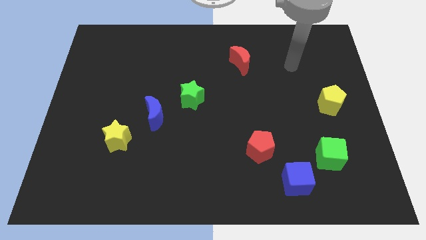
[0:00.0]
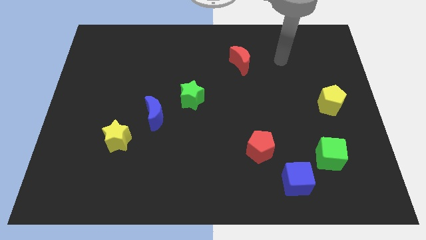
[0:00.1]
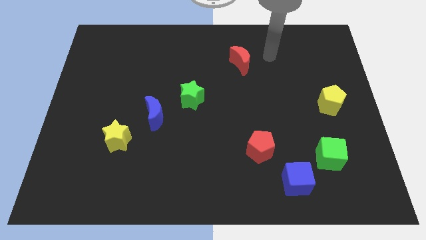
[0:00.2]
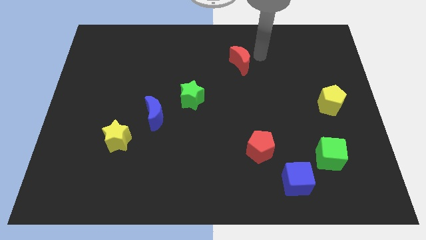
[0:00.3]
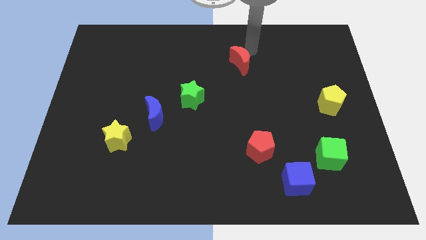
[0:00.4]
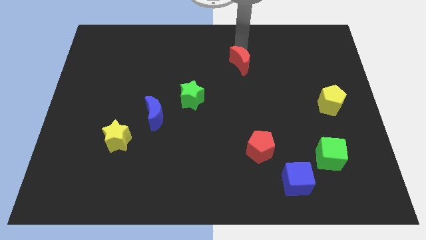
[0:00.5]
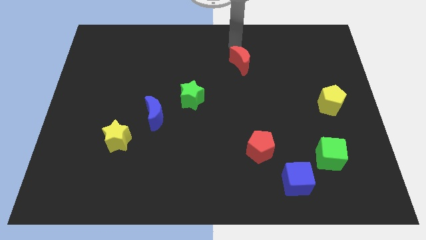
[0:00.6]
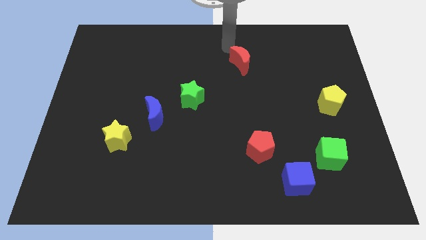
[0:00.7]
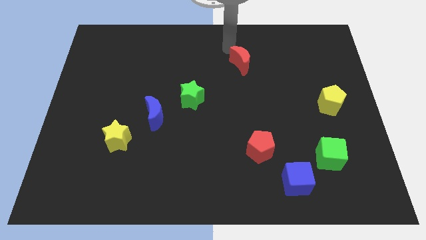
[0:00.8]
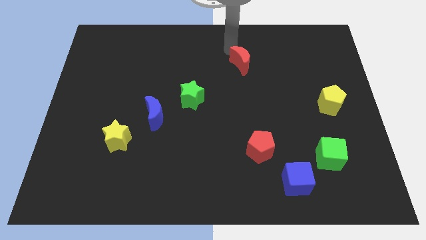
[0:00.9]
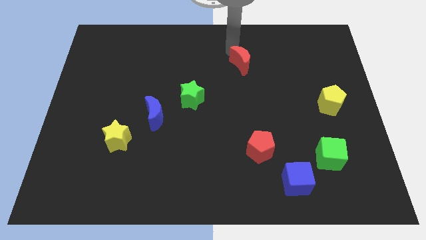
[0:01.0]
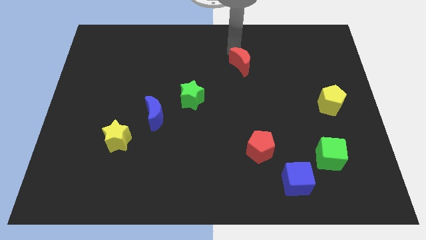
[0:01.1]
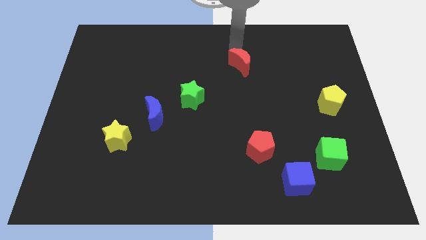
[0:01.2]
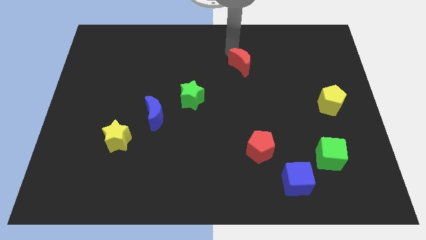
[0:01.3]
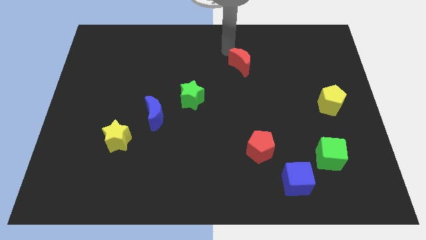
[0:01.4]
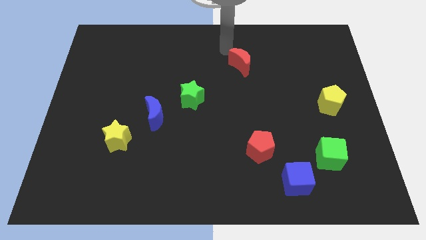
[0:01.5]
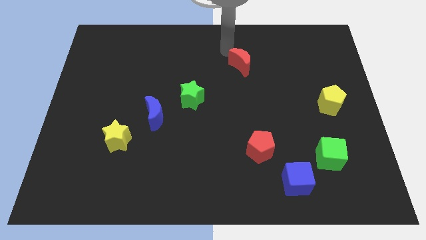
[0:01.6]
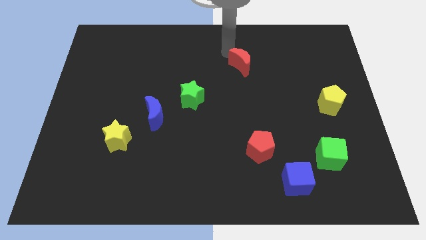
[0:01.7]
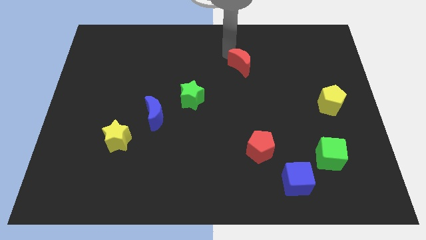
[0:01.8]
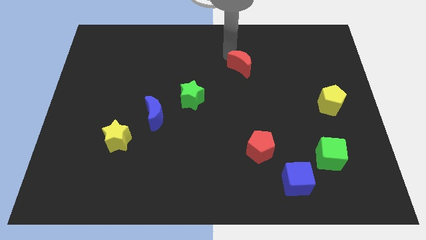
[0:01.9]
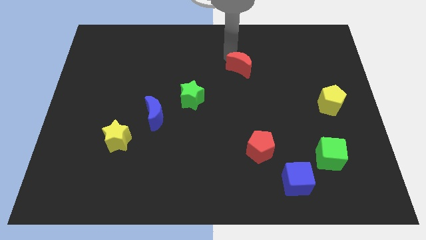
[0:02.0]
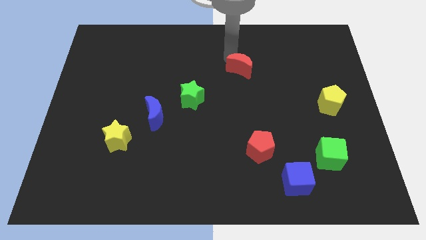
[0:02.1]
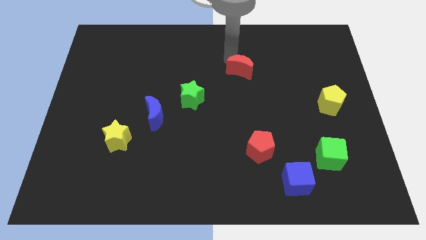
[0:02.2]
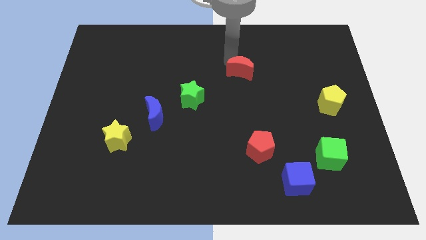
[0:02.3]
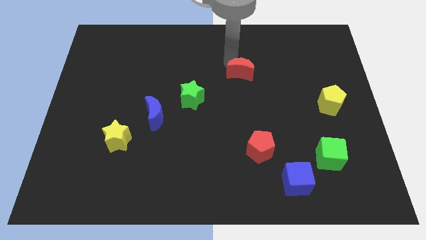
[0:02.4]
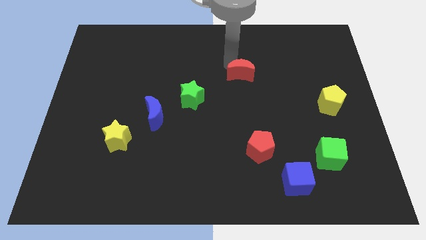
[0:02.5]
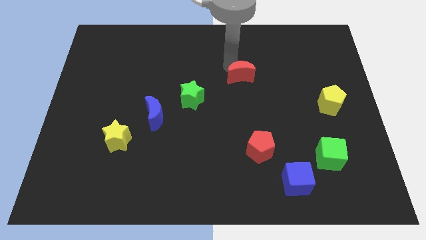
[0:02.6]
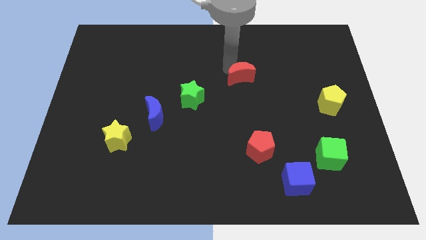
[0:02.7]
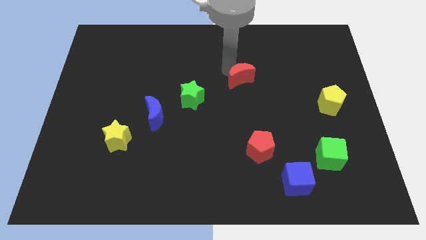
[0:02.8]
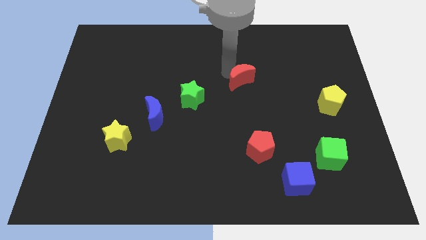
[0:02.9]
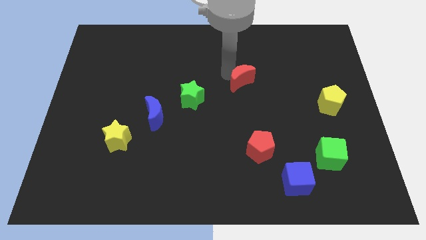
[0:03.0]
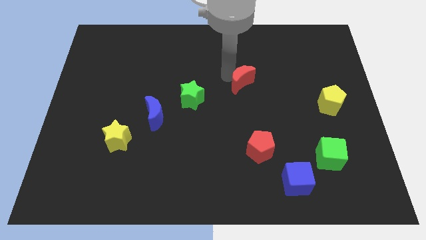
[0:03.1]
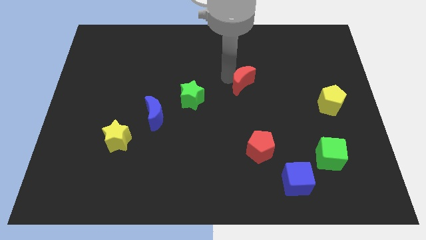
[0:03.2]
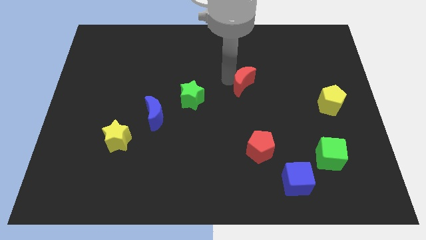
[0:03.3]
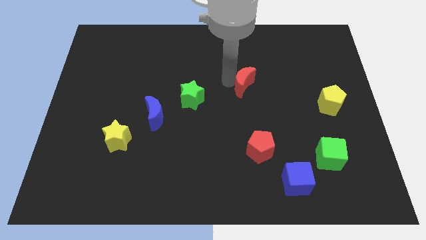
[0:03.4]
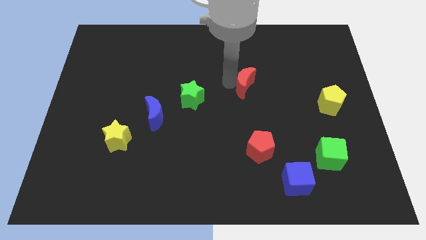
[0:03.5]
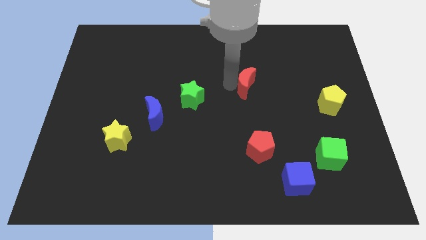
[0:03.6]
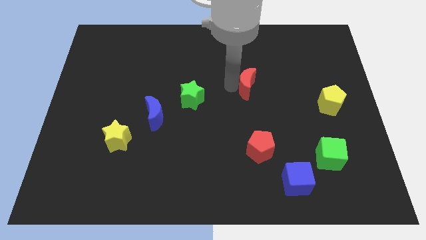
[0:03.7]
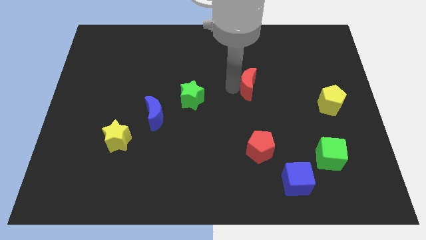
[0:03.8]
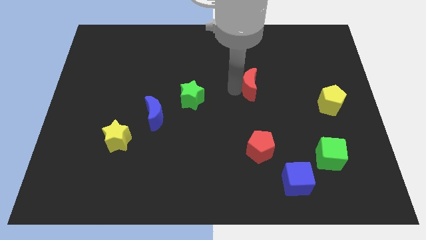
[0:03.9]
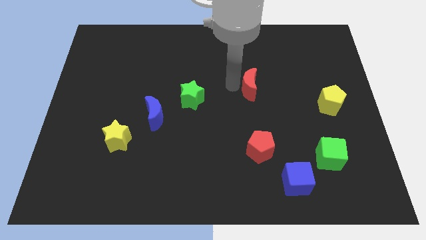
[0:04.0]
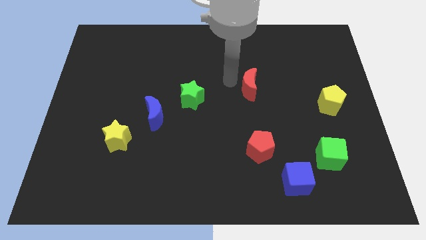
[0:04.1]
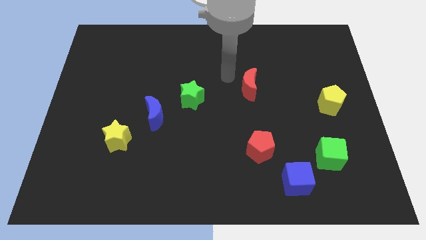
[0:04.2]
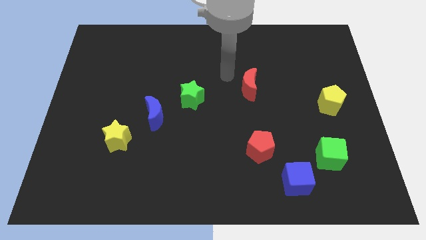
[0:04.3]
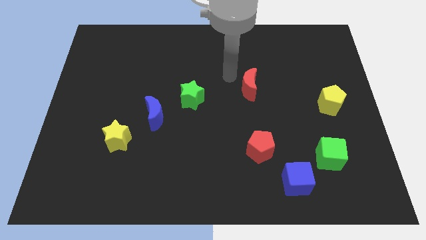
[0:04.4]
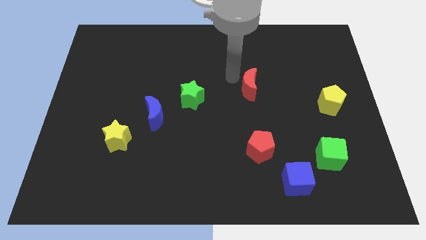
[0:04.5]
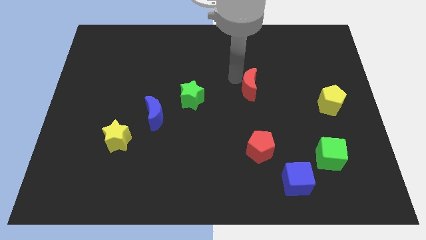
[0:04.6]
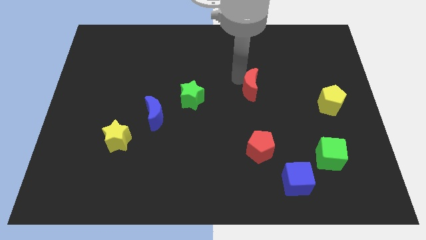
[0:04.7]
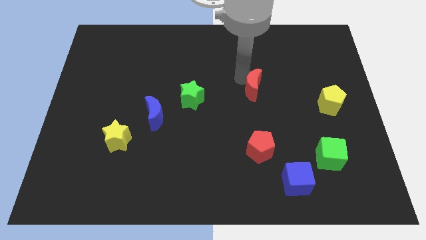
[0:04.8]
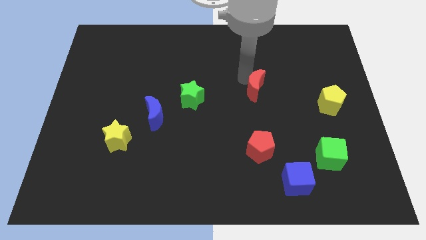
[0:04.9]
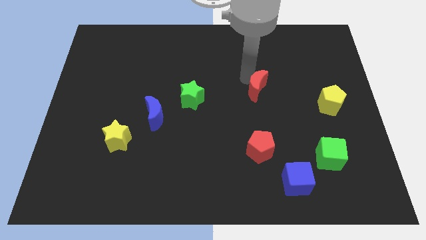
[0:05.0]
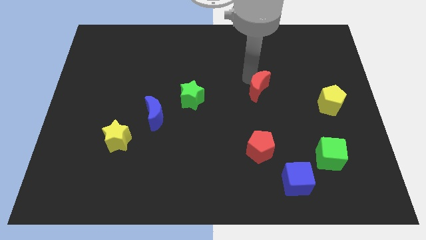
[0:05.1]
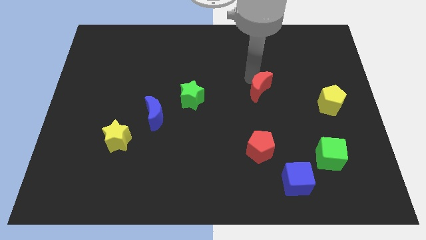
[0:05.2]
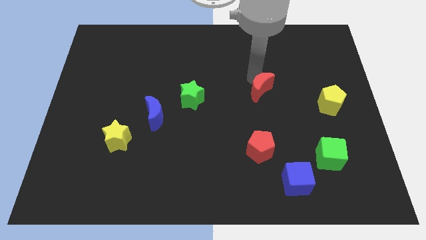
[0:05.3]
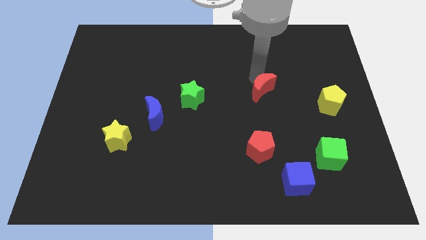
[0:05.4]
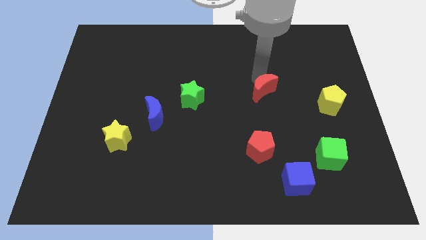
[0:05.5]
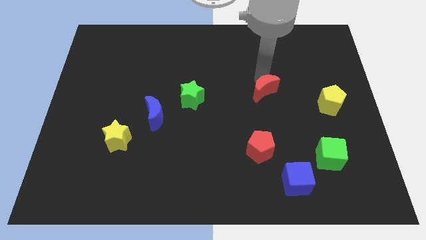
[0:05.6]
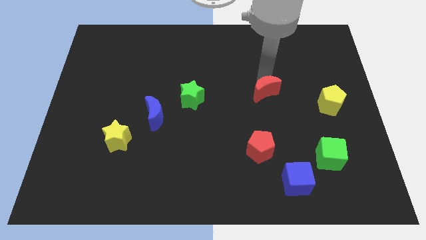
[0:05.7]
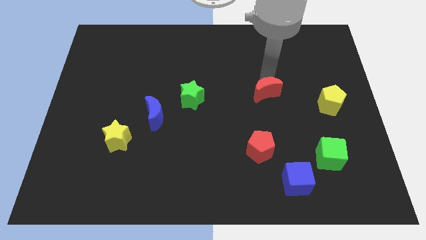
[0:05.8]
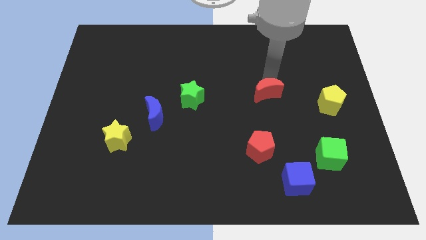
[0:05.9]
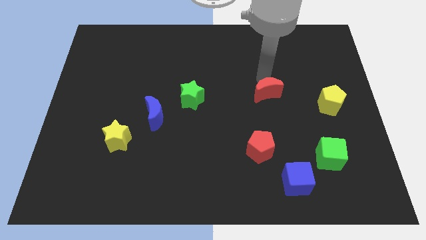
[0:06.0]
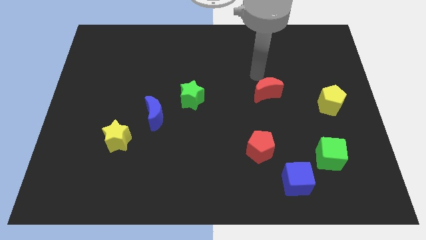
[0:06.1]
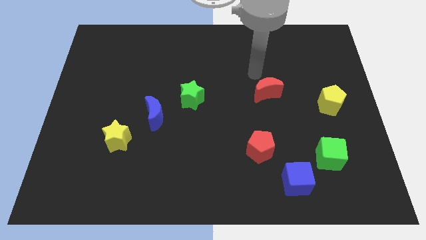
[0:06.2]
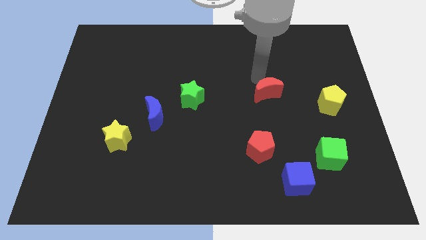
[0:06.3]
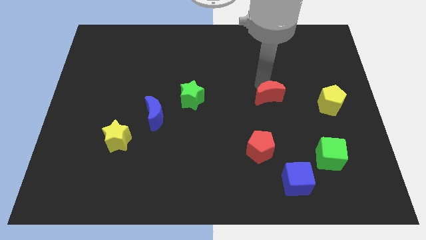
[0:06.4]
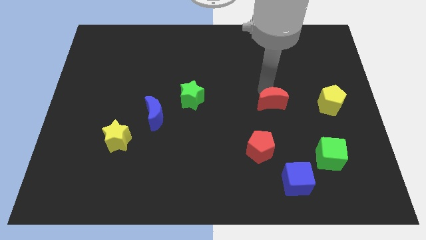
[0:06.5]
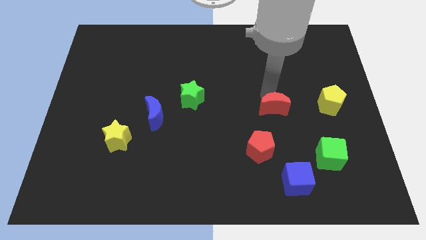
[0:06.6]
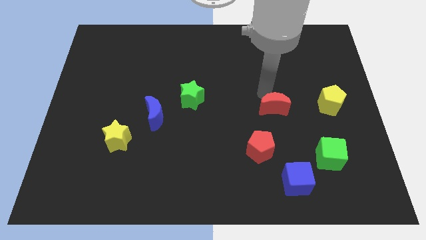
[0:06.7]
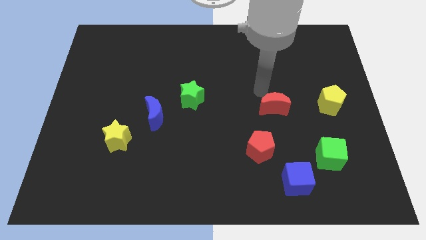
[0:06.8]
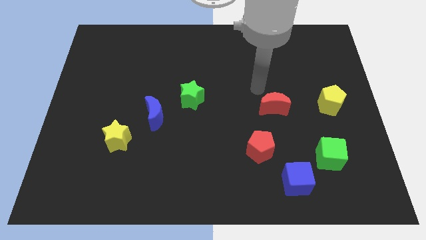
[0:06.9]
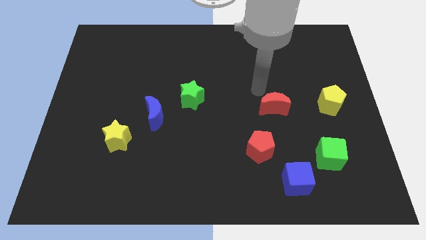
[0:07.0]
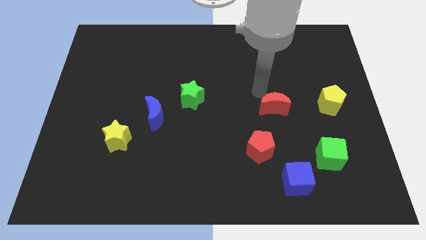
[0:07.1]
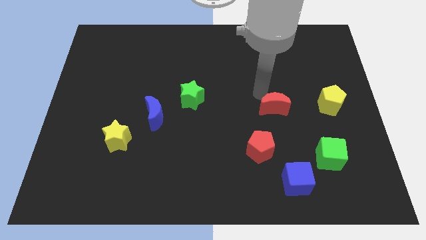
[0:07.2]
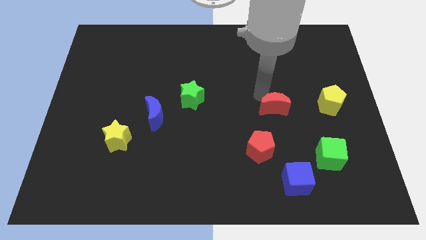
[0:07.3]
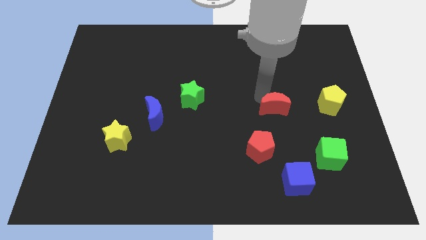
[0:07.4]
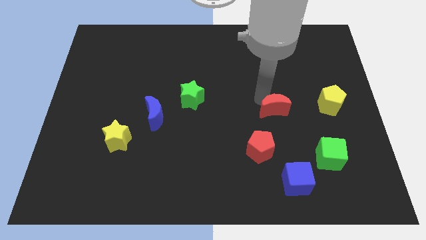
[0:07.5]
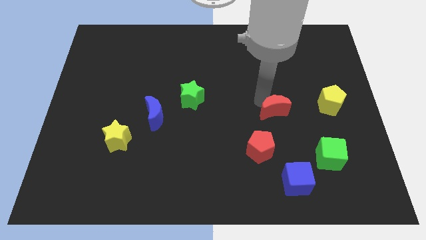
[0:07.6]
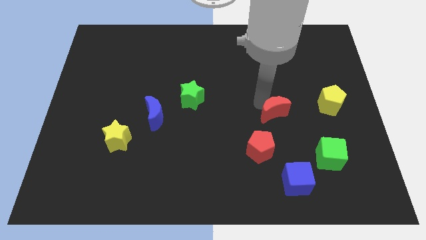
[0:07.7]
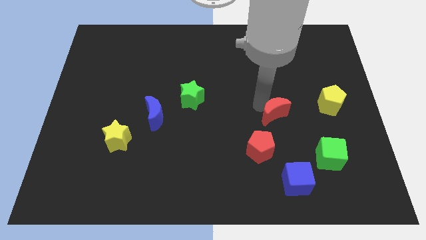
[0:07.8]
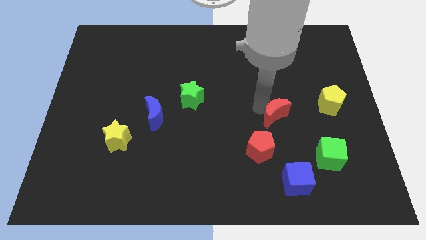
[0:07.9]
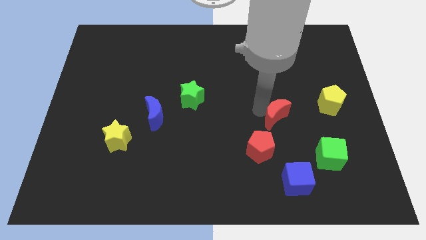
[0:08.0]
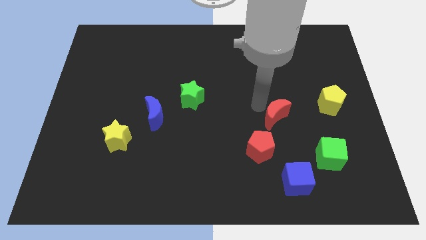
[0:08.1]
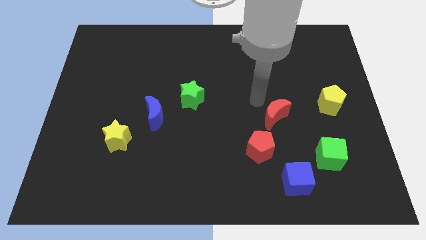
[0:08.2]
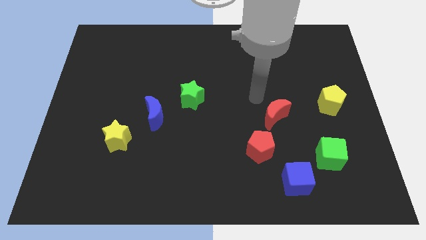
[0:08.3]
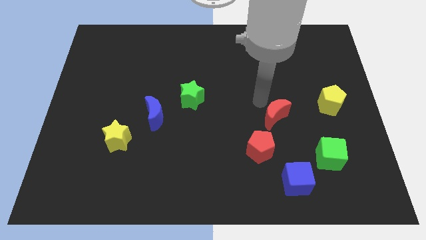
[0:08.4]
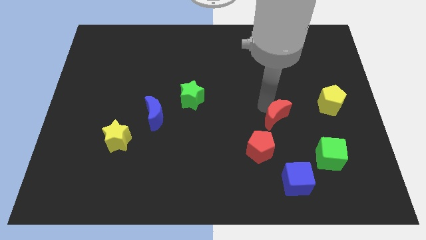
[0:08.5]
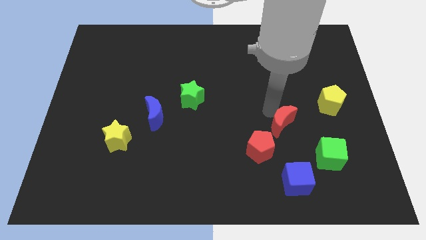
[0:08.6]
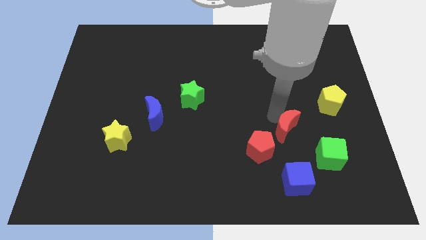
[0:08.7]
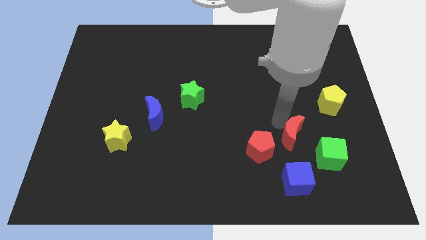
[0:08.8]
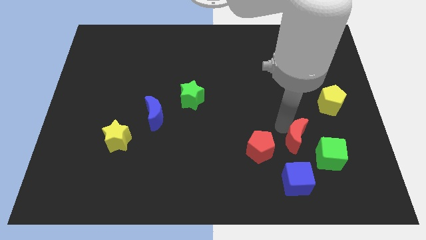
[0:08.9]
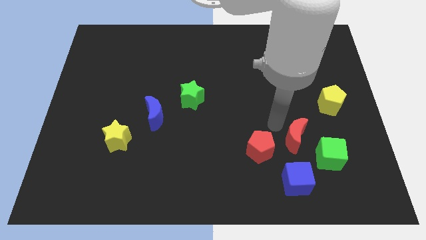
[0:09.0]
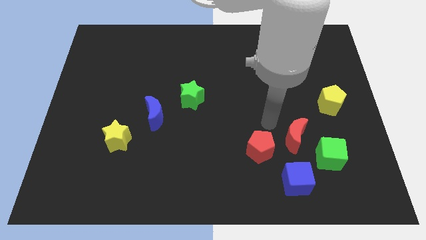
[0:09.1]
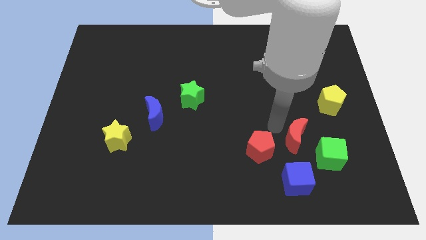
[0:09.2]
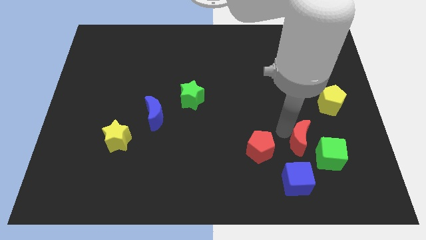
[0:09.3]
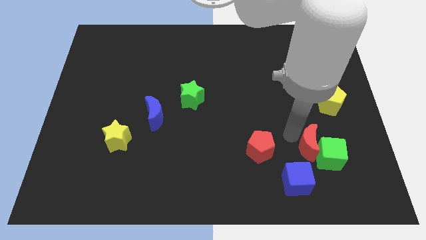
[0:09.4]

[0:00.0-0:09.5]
put the red moon close to the green cube
